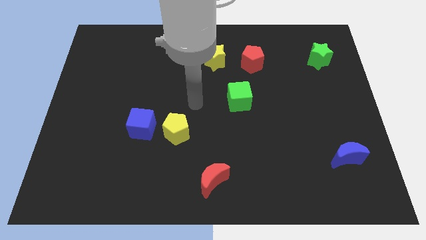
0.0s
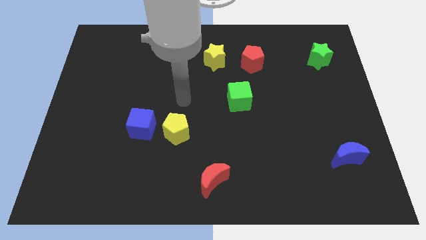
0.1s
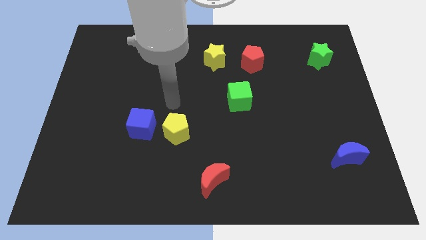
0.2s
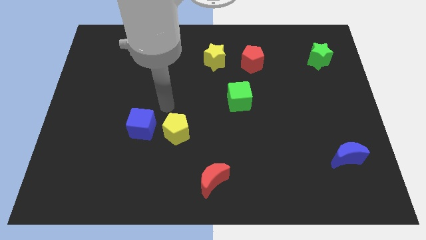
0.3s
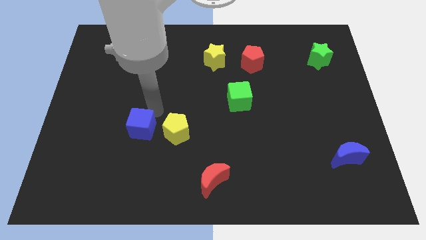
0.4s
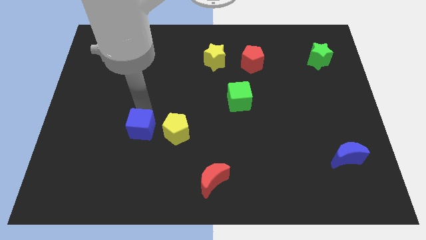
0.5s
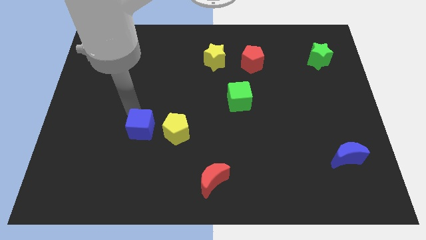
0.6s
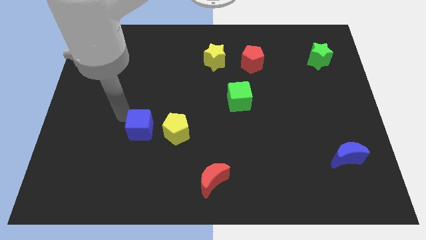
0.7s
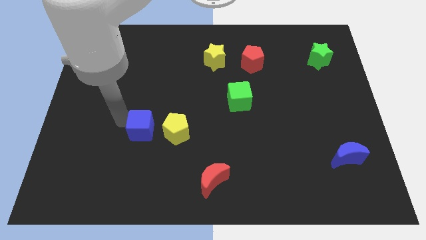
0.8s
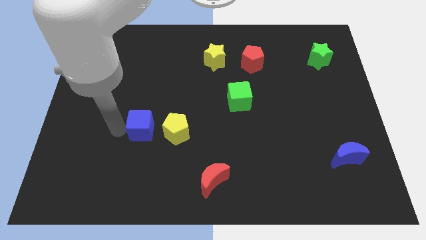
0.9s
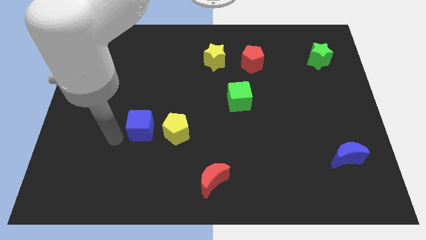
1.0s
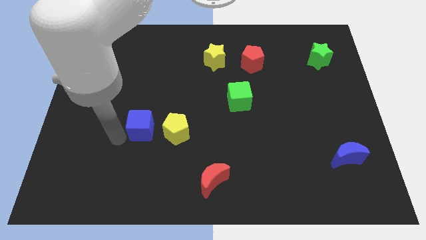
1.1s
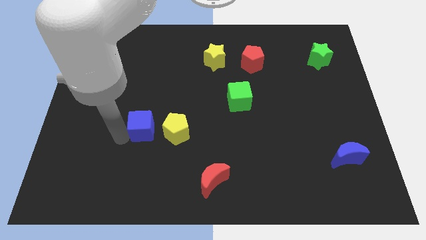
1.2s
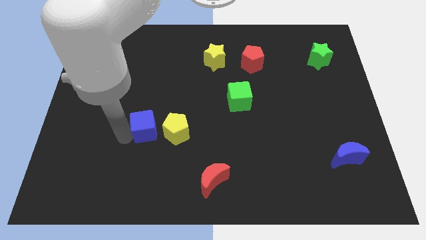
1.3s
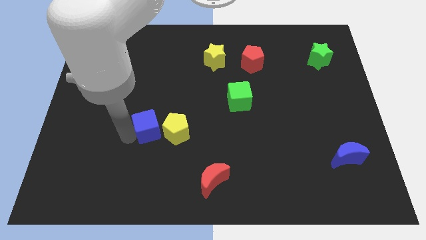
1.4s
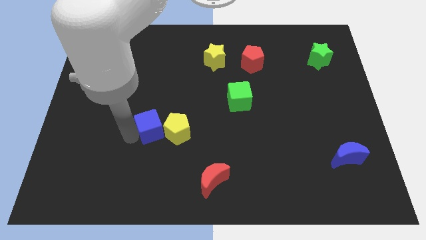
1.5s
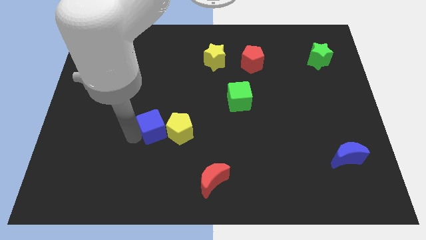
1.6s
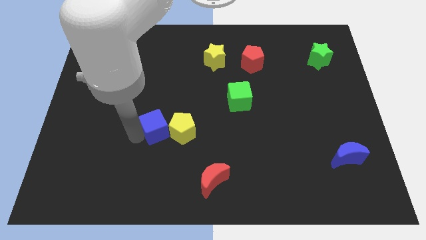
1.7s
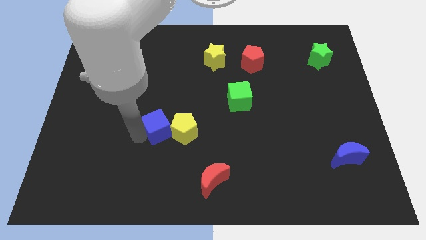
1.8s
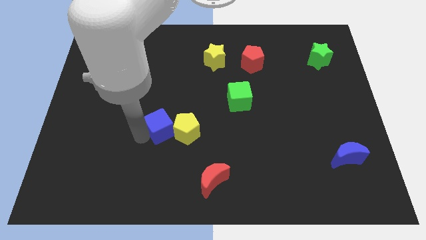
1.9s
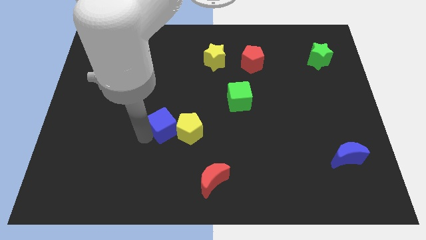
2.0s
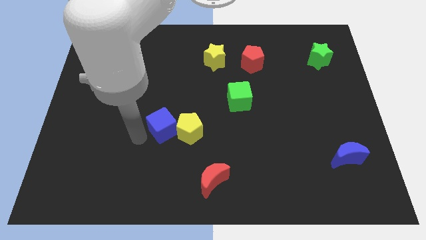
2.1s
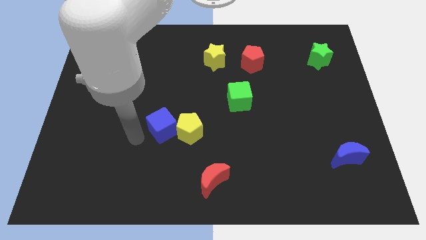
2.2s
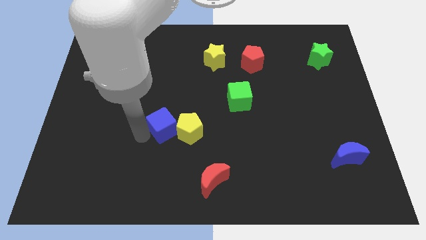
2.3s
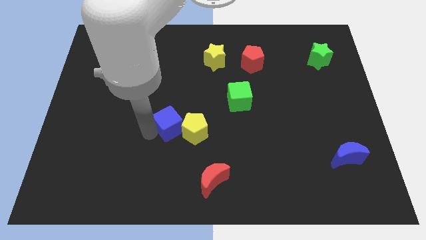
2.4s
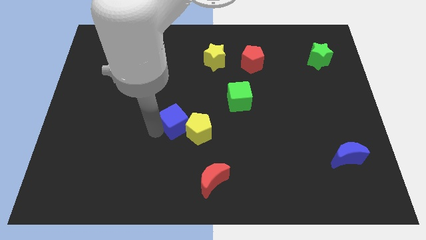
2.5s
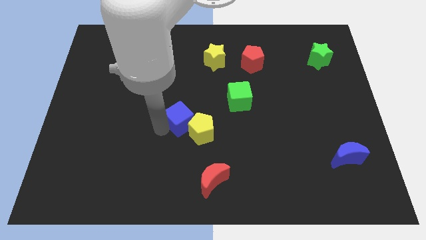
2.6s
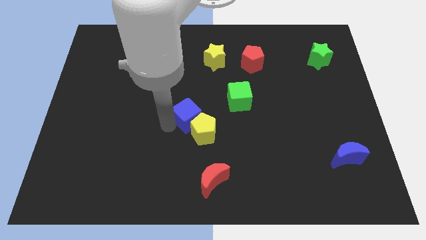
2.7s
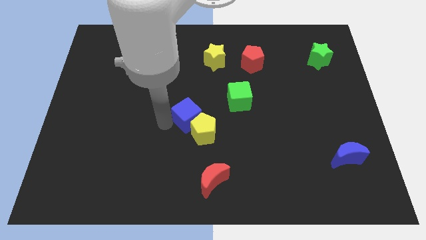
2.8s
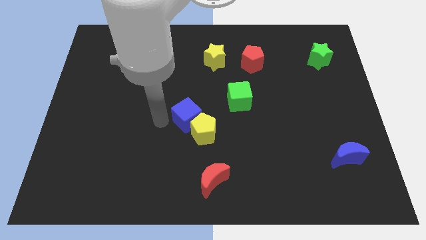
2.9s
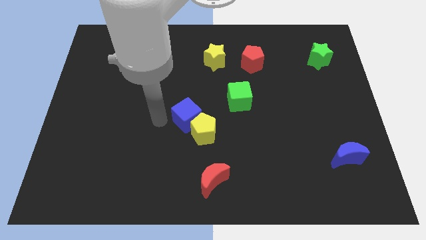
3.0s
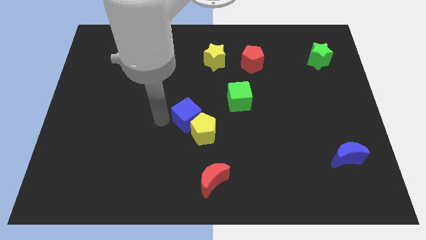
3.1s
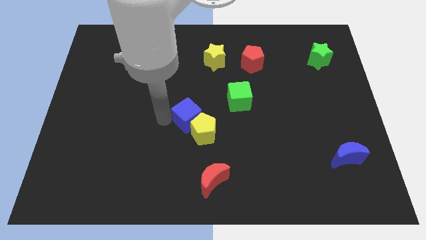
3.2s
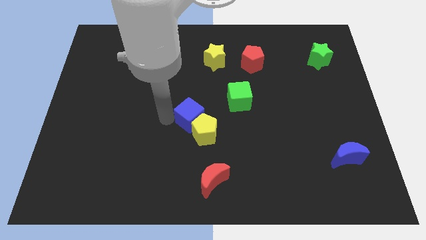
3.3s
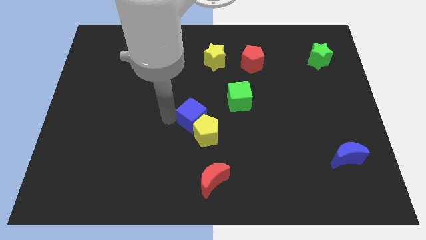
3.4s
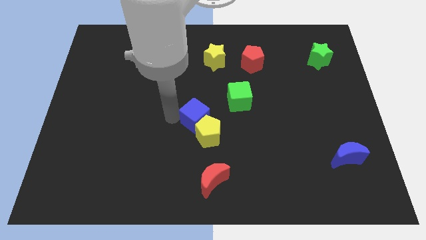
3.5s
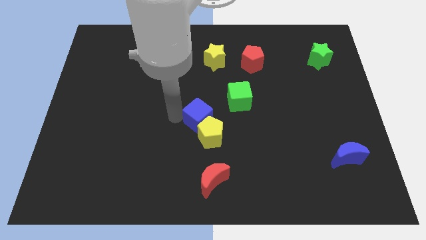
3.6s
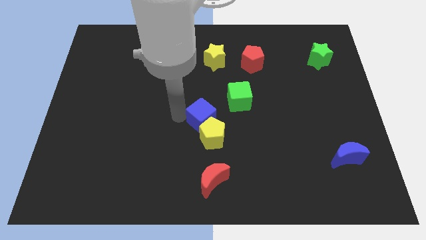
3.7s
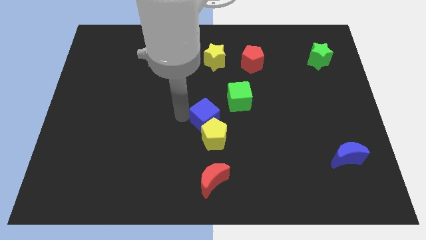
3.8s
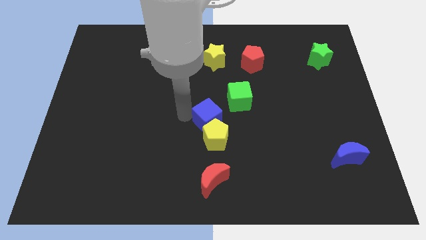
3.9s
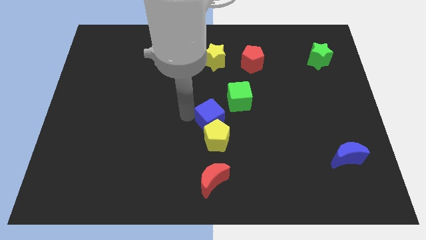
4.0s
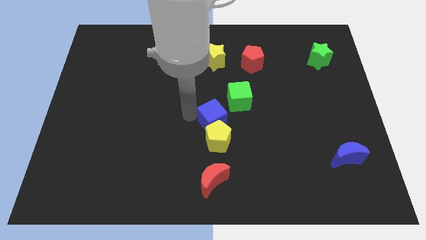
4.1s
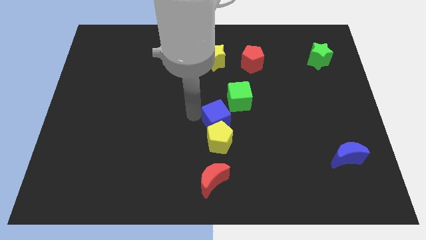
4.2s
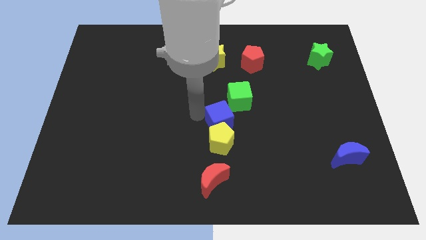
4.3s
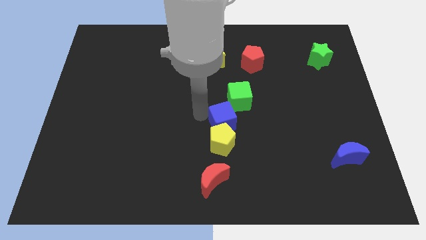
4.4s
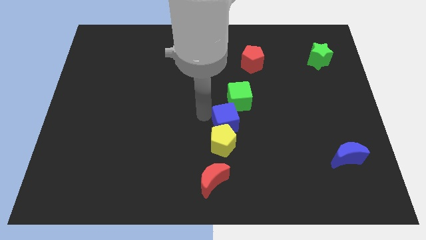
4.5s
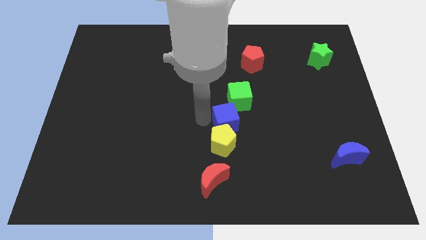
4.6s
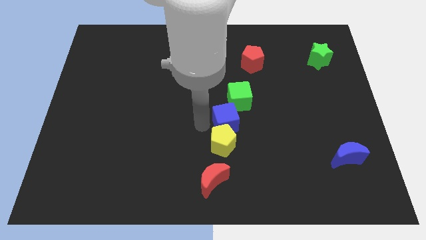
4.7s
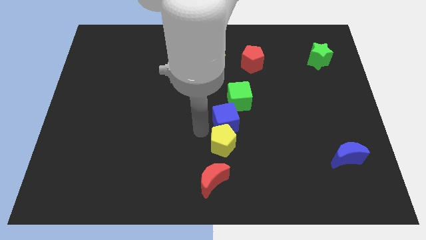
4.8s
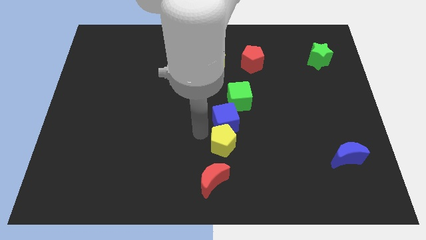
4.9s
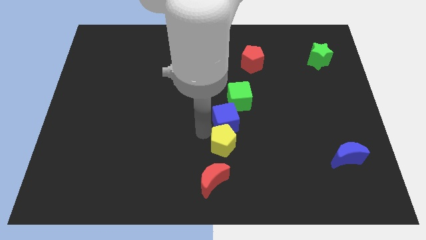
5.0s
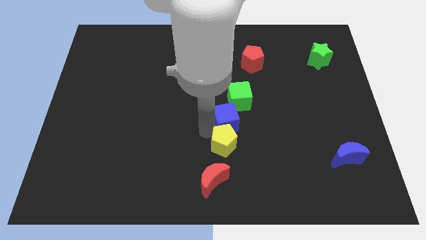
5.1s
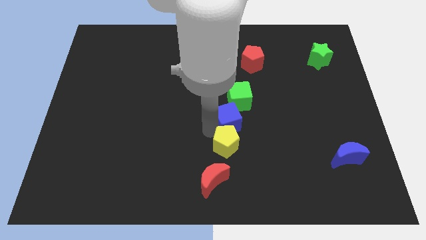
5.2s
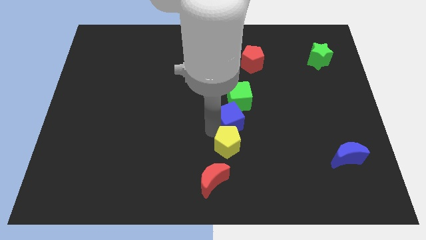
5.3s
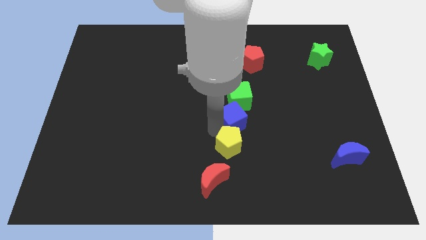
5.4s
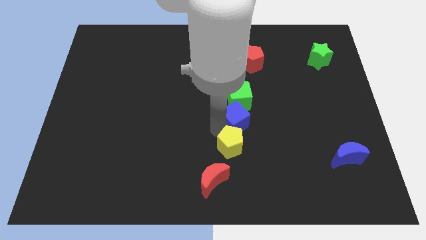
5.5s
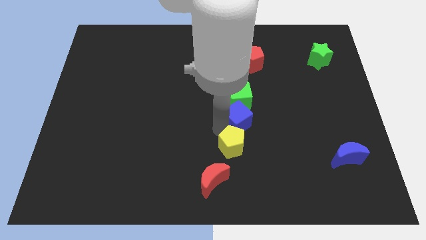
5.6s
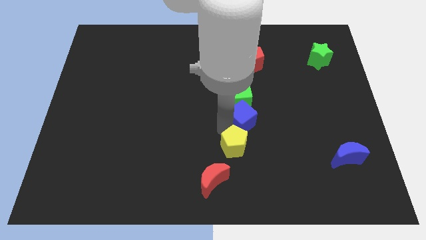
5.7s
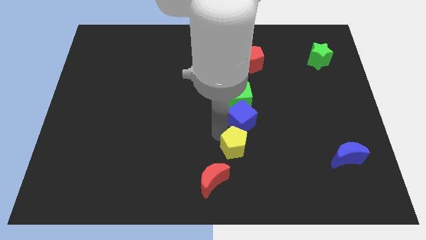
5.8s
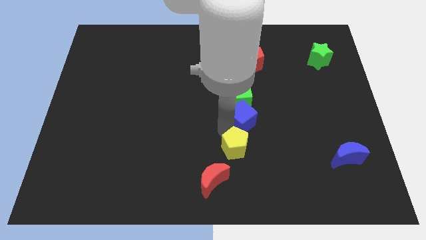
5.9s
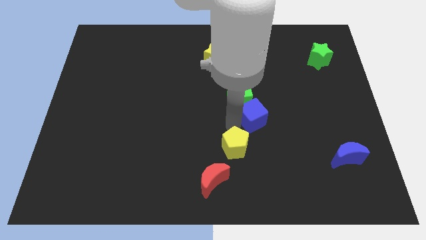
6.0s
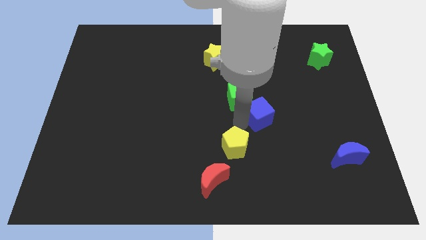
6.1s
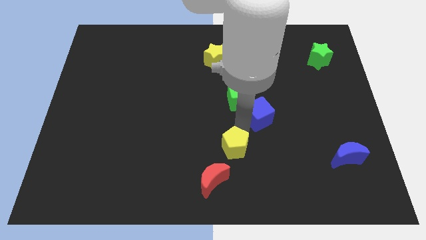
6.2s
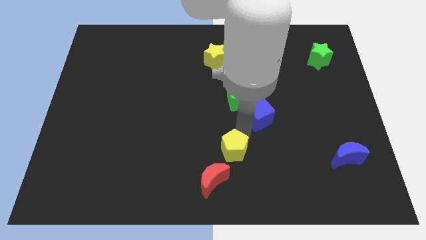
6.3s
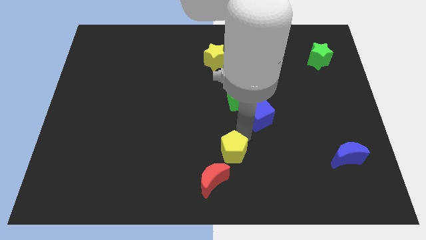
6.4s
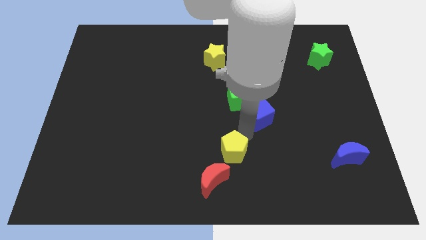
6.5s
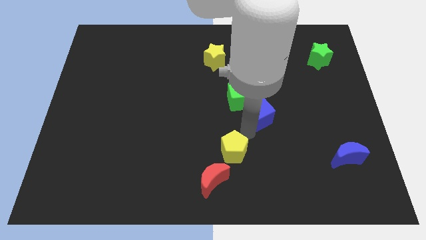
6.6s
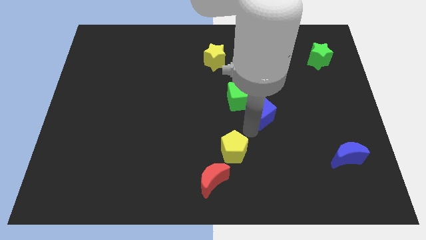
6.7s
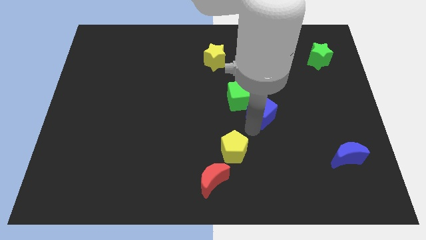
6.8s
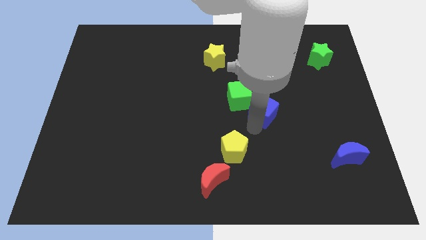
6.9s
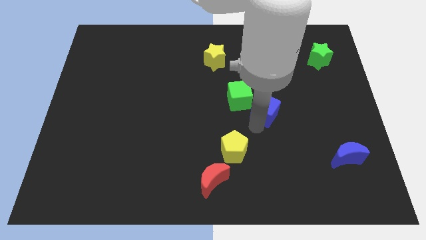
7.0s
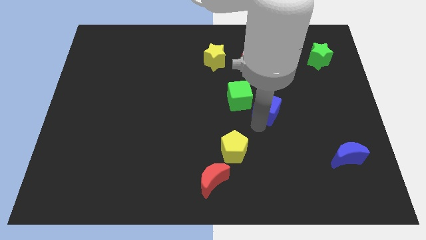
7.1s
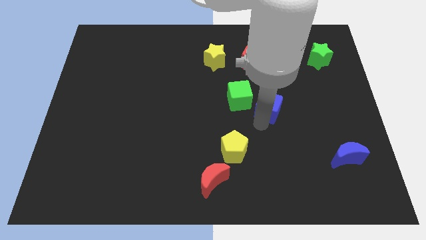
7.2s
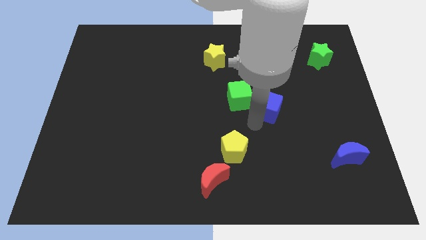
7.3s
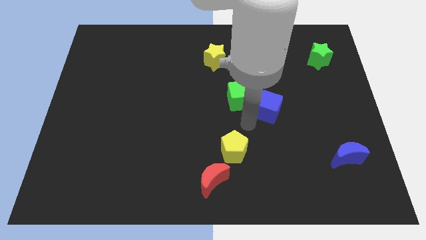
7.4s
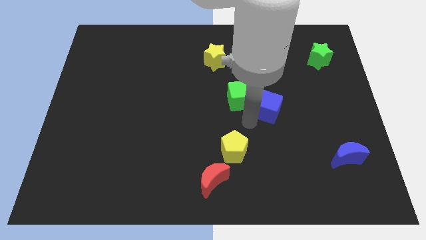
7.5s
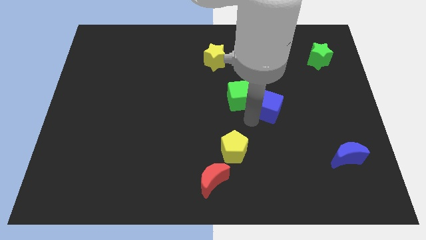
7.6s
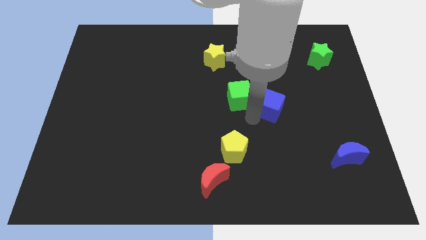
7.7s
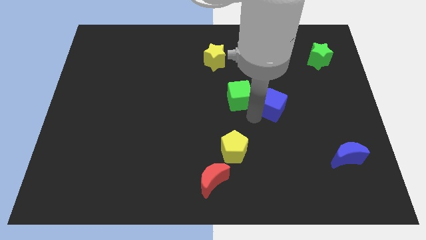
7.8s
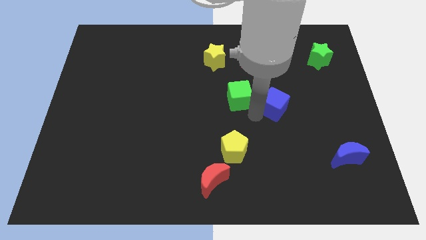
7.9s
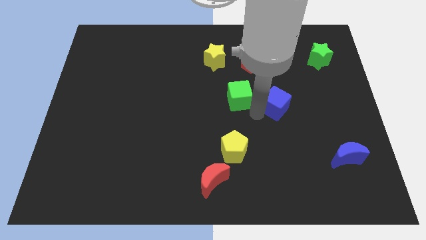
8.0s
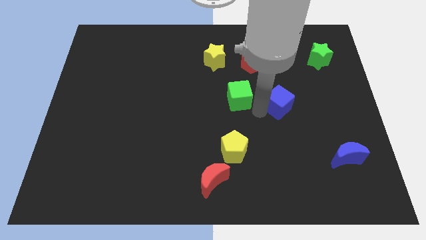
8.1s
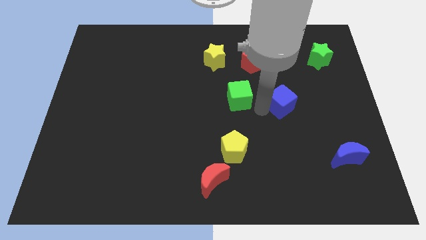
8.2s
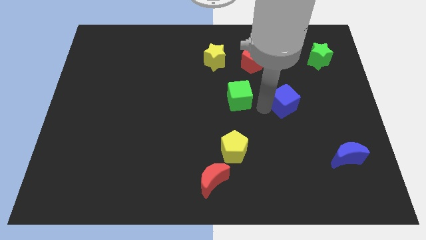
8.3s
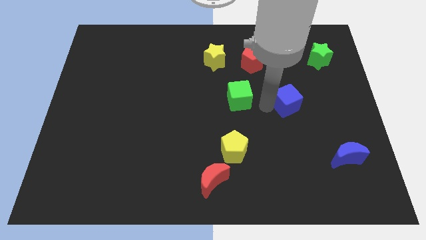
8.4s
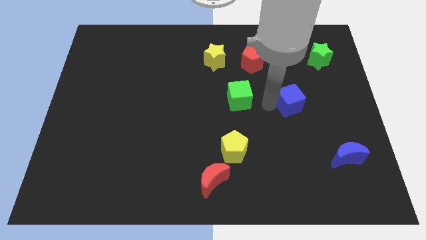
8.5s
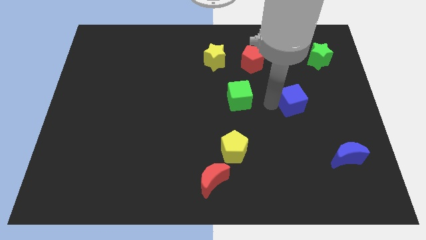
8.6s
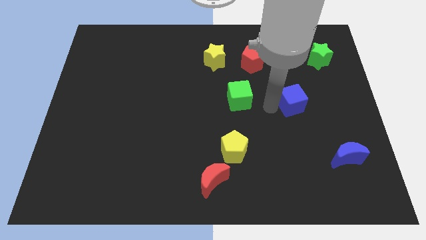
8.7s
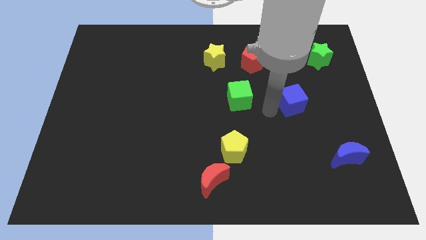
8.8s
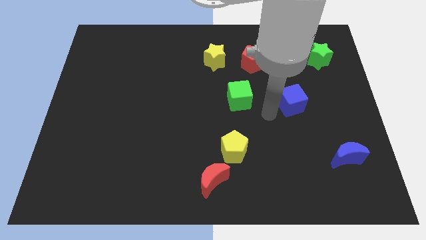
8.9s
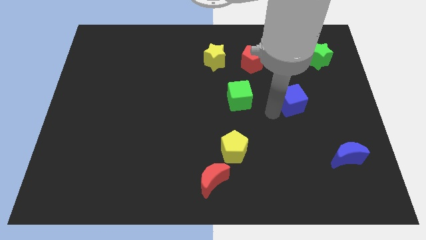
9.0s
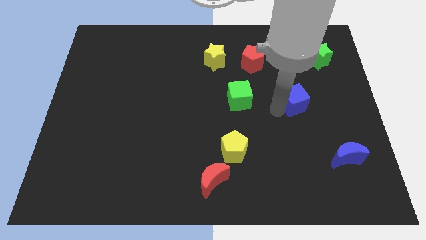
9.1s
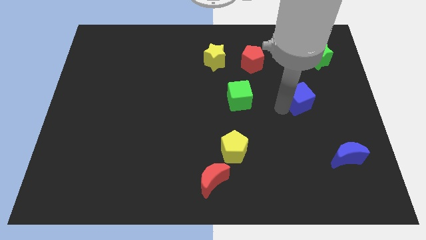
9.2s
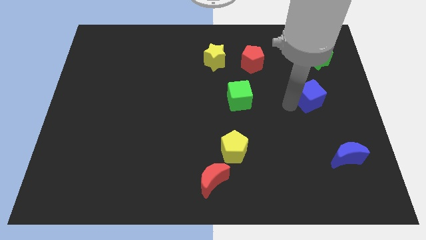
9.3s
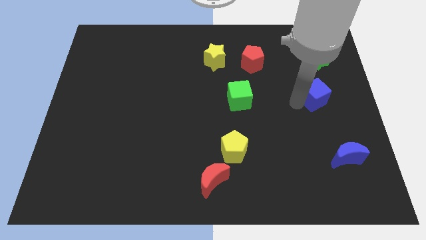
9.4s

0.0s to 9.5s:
move the blue cube to the bottom of the green star
